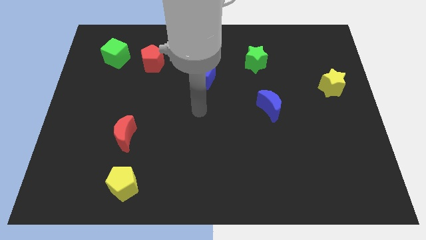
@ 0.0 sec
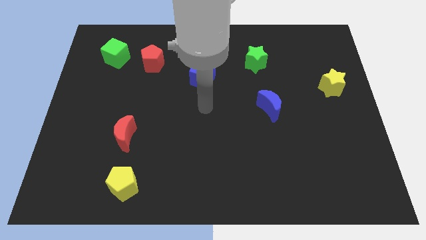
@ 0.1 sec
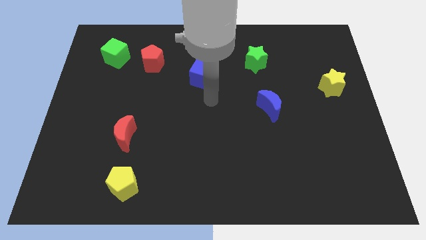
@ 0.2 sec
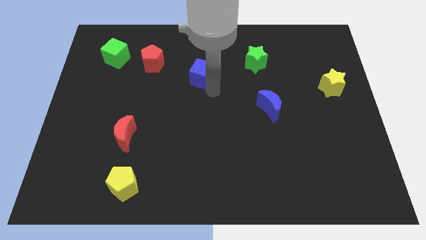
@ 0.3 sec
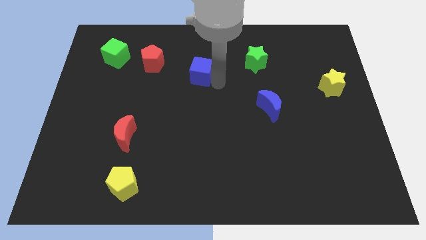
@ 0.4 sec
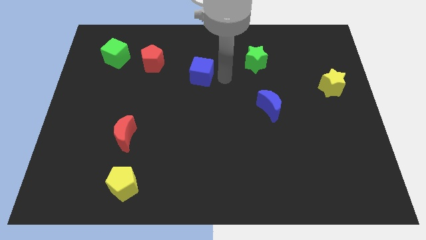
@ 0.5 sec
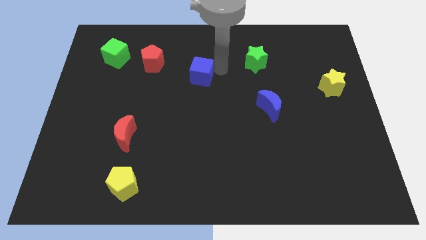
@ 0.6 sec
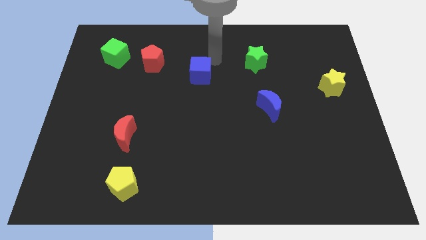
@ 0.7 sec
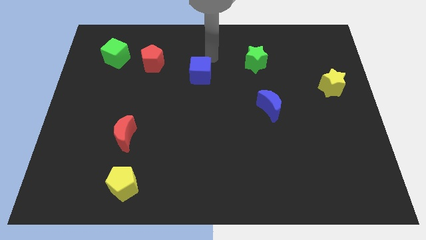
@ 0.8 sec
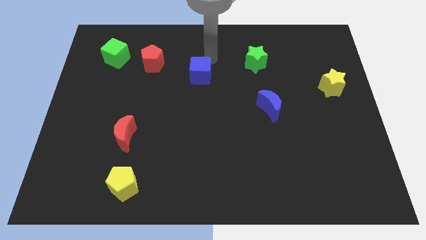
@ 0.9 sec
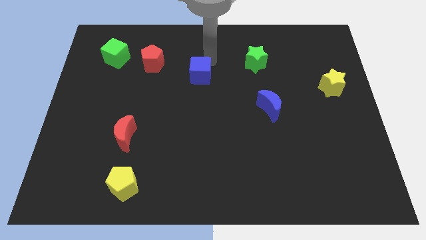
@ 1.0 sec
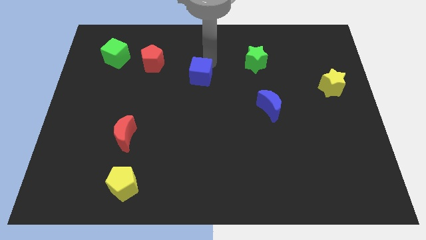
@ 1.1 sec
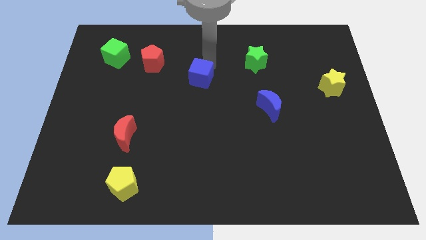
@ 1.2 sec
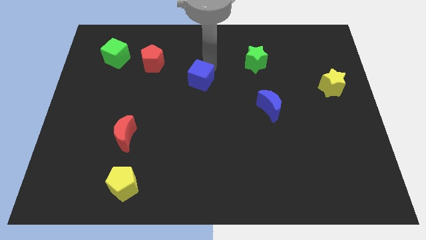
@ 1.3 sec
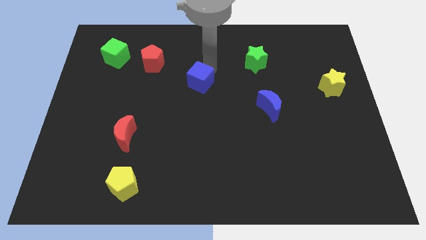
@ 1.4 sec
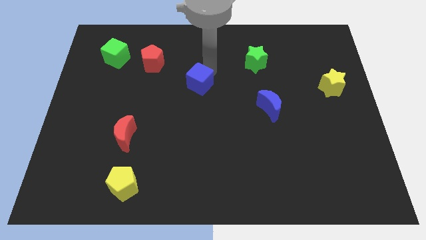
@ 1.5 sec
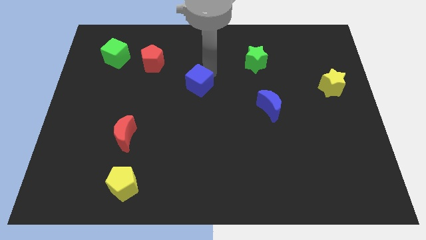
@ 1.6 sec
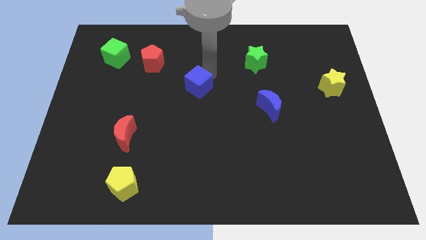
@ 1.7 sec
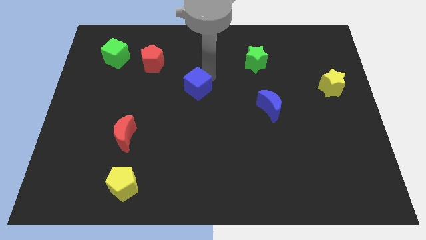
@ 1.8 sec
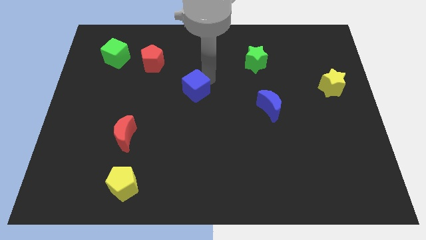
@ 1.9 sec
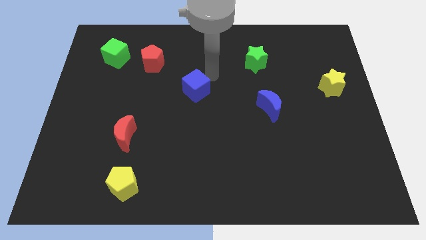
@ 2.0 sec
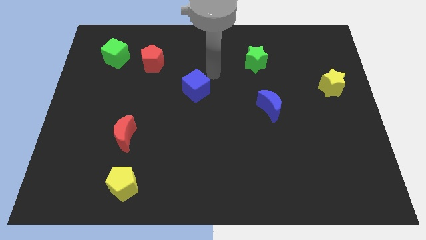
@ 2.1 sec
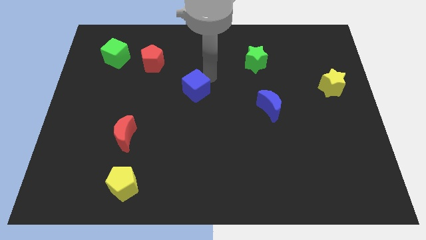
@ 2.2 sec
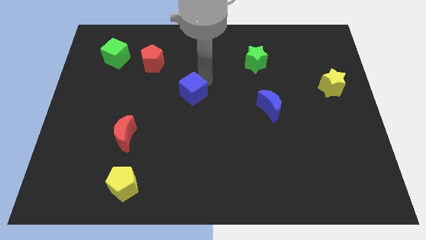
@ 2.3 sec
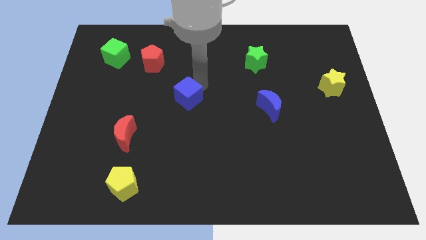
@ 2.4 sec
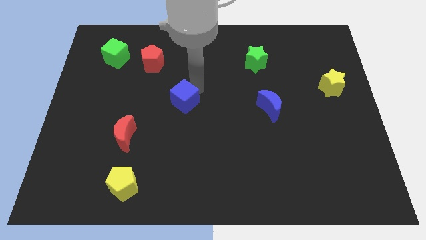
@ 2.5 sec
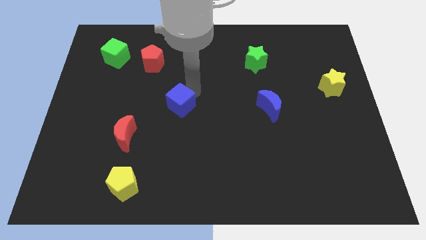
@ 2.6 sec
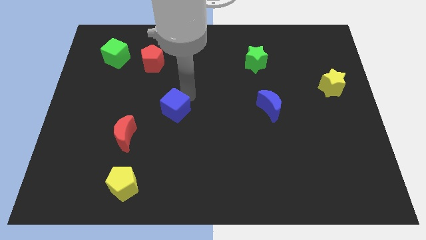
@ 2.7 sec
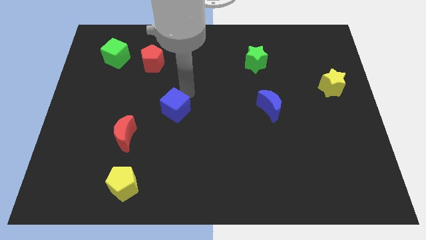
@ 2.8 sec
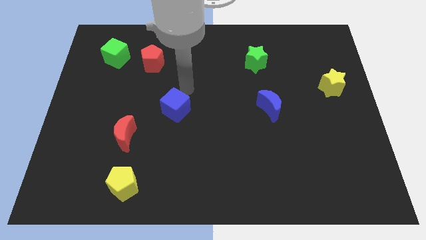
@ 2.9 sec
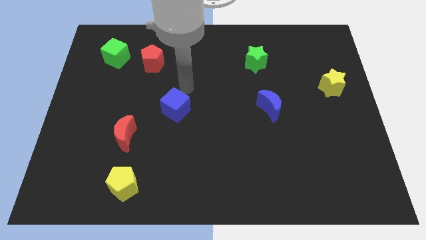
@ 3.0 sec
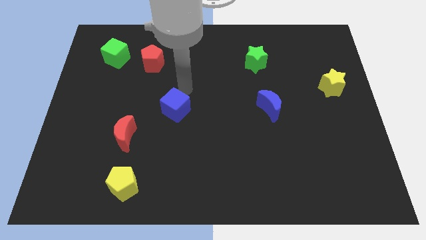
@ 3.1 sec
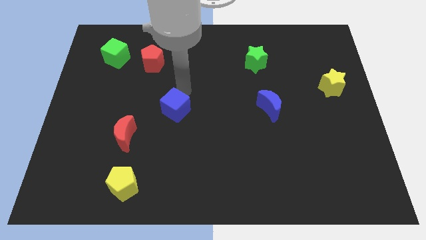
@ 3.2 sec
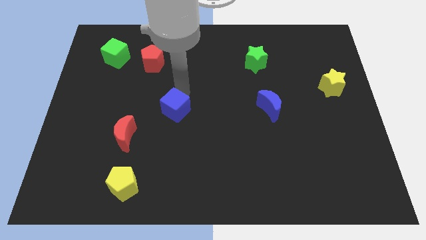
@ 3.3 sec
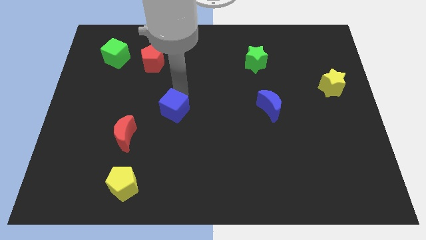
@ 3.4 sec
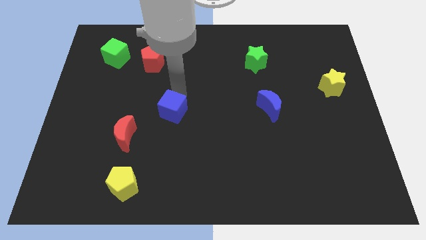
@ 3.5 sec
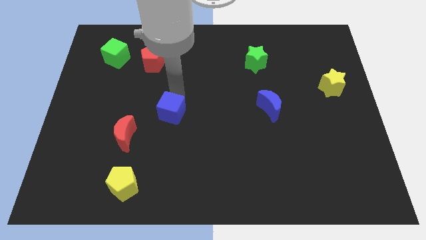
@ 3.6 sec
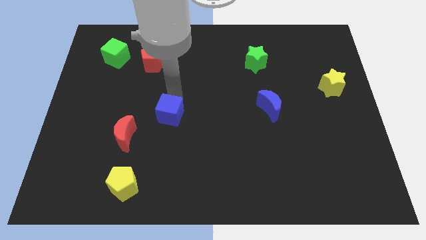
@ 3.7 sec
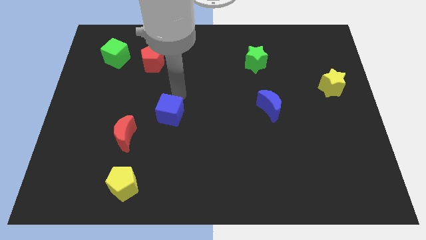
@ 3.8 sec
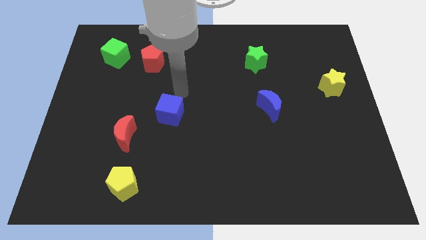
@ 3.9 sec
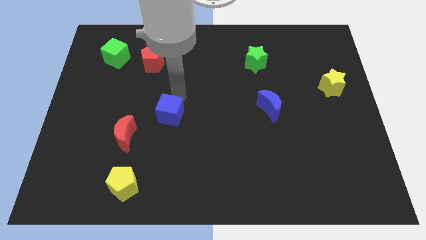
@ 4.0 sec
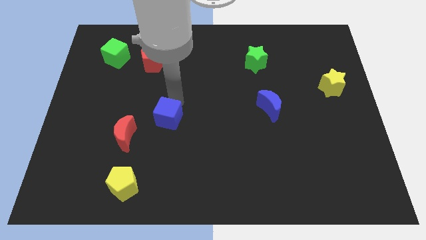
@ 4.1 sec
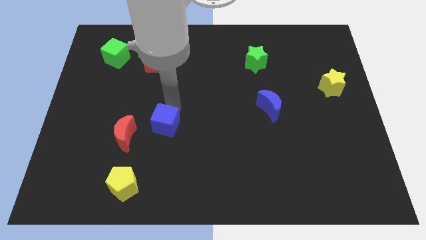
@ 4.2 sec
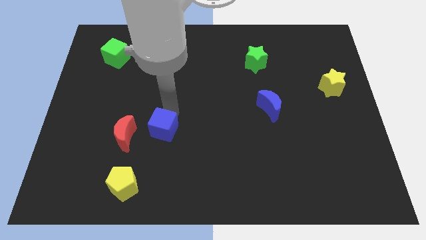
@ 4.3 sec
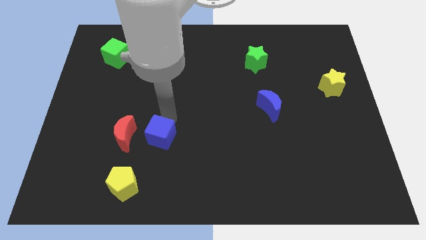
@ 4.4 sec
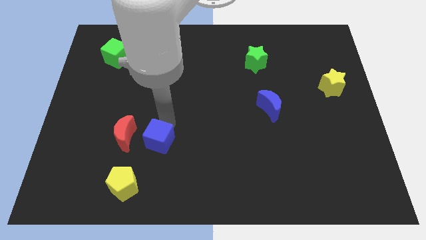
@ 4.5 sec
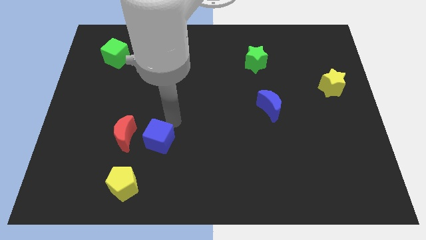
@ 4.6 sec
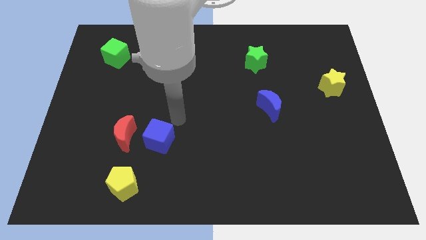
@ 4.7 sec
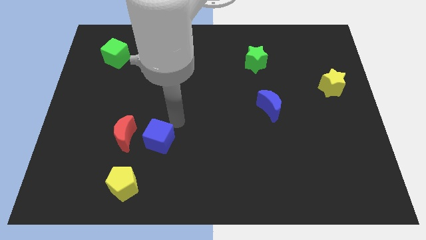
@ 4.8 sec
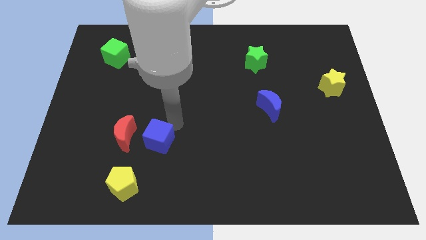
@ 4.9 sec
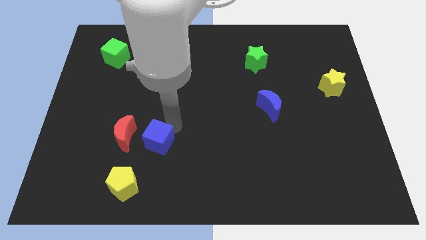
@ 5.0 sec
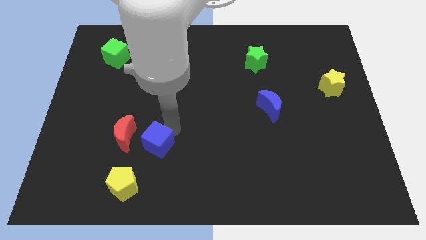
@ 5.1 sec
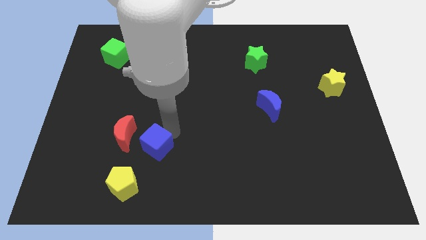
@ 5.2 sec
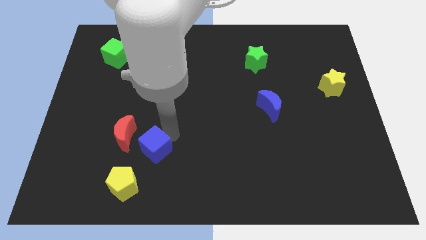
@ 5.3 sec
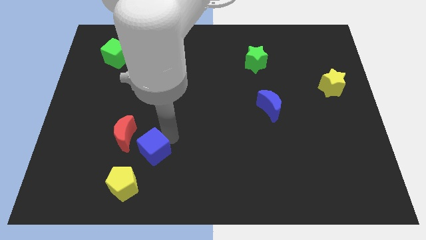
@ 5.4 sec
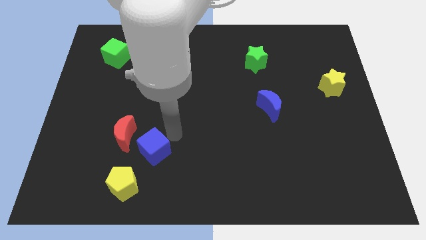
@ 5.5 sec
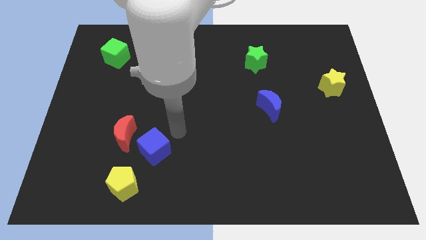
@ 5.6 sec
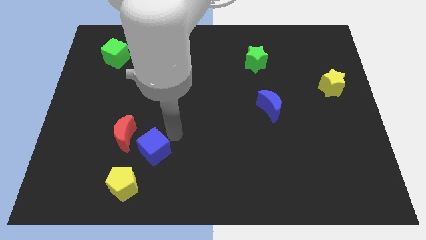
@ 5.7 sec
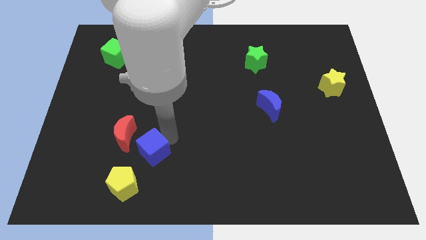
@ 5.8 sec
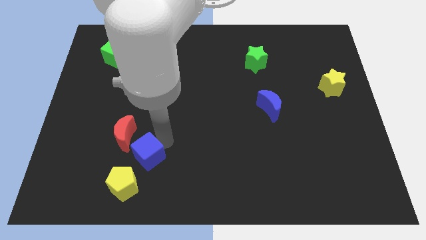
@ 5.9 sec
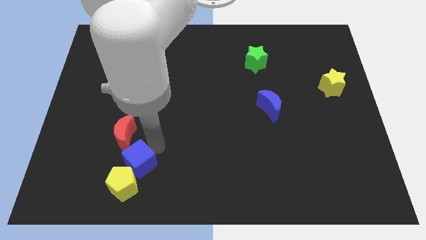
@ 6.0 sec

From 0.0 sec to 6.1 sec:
put the blue cube close to the yellow pentagon

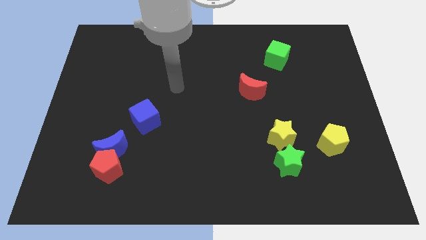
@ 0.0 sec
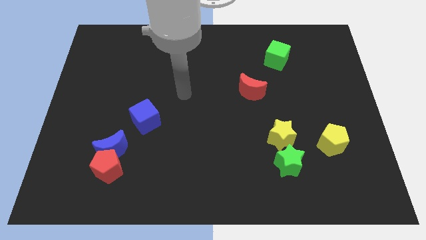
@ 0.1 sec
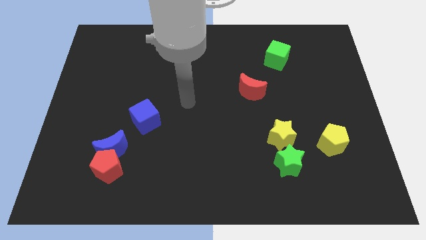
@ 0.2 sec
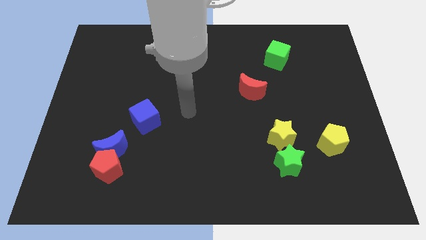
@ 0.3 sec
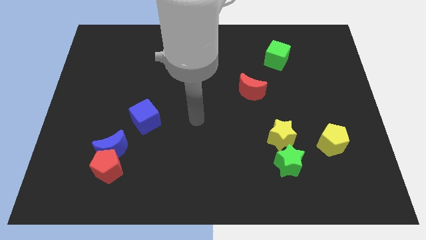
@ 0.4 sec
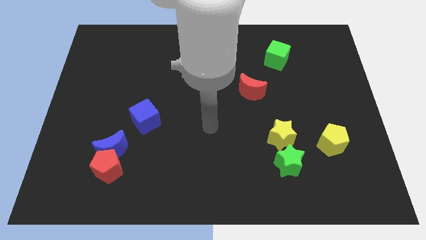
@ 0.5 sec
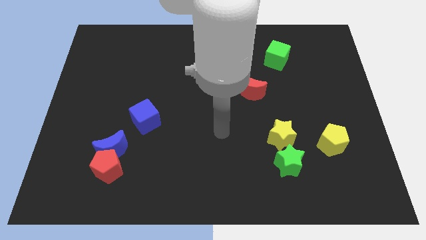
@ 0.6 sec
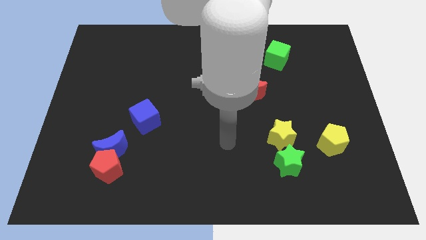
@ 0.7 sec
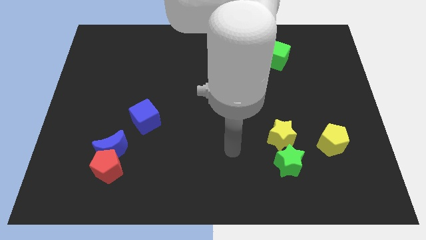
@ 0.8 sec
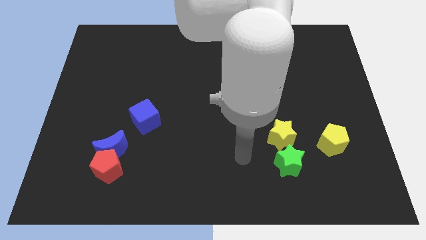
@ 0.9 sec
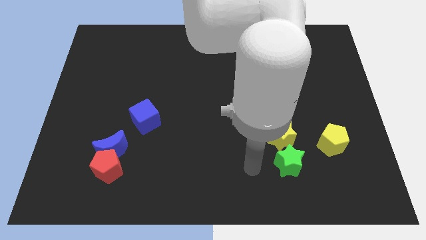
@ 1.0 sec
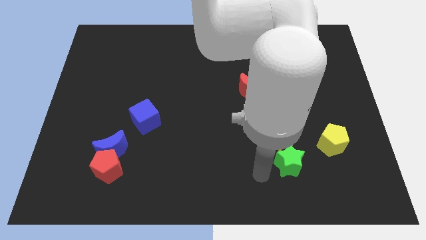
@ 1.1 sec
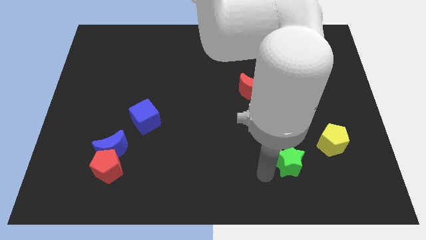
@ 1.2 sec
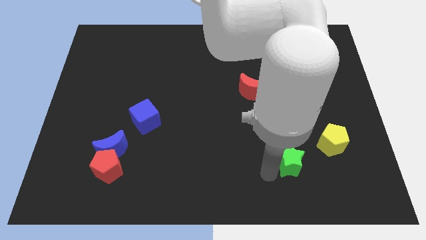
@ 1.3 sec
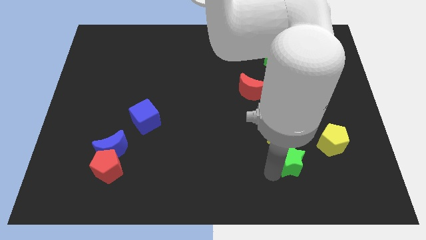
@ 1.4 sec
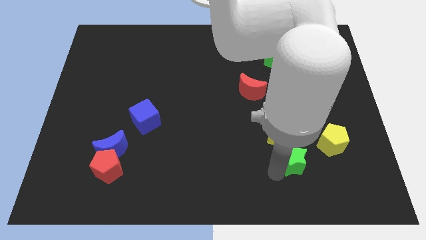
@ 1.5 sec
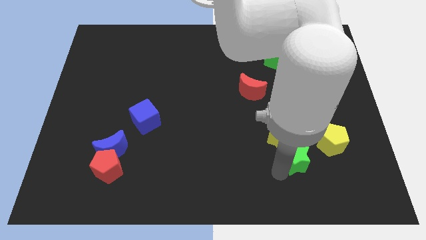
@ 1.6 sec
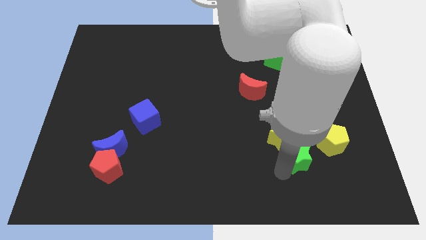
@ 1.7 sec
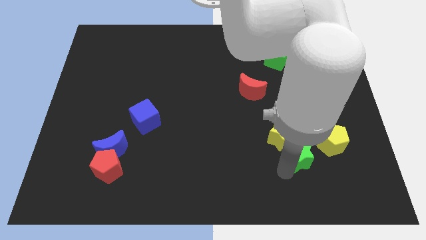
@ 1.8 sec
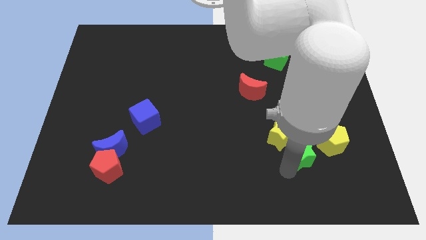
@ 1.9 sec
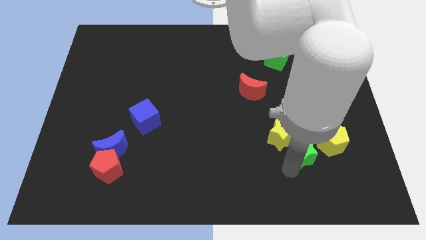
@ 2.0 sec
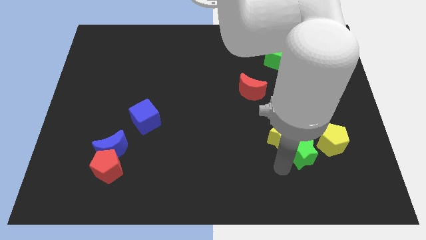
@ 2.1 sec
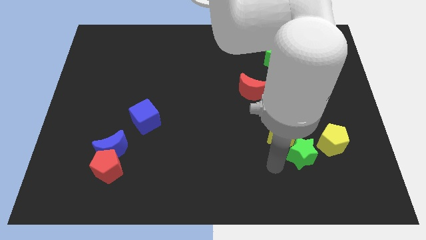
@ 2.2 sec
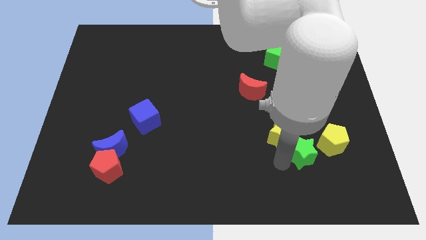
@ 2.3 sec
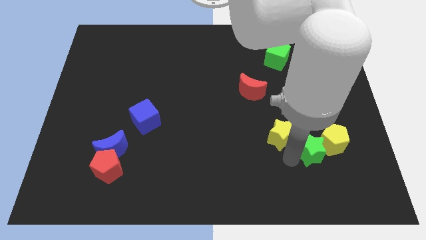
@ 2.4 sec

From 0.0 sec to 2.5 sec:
slide the green star to the yellow pentagon
